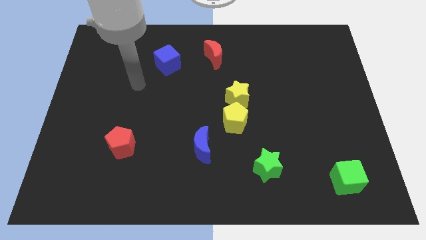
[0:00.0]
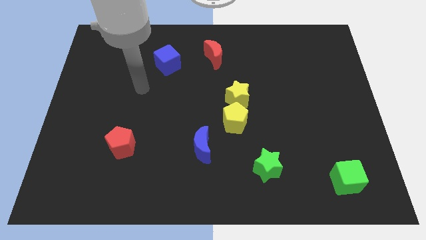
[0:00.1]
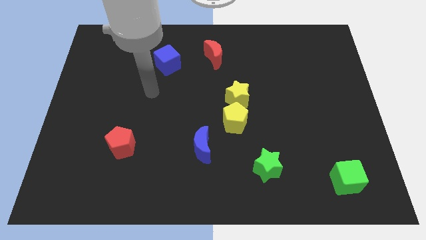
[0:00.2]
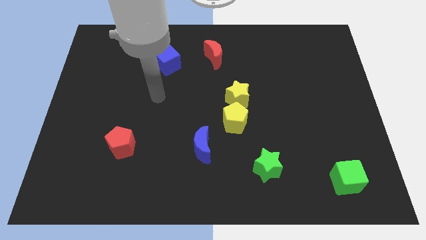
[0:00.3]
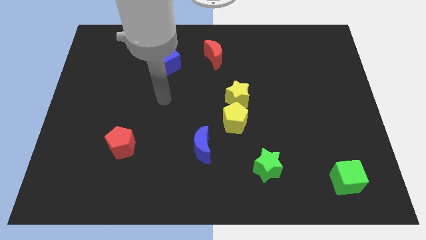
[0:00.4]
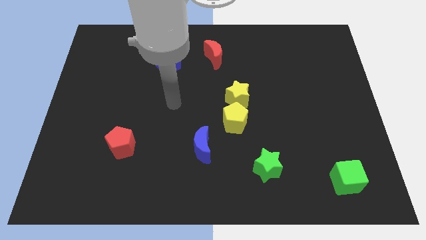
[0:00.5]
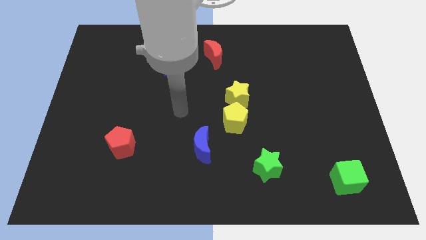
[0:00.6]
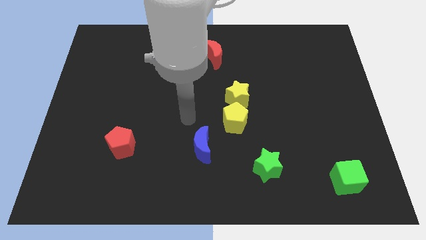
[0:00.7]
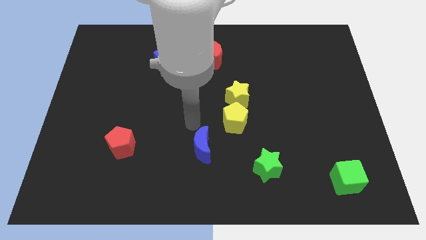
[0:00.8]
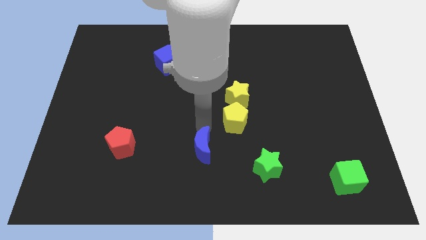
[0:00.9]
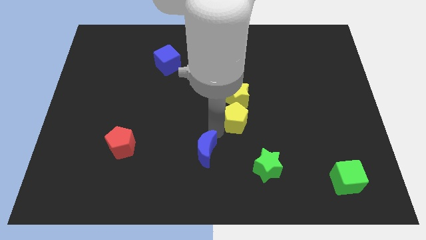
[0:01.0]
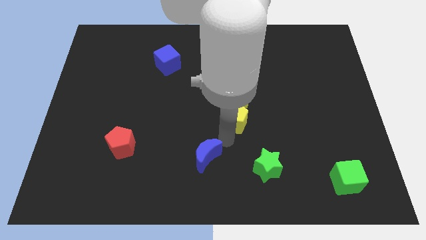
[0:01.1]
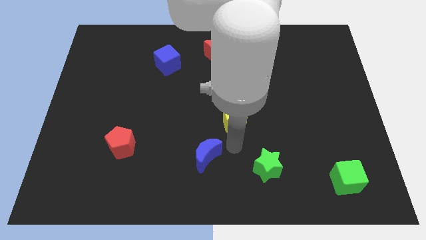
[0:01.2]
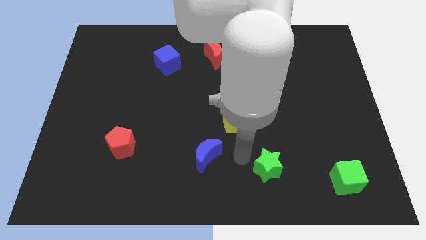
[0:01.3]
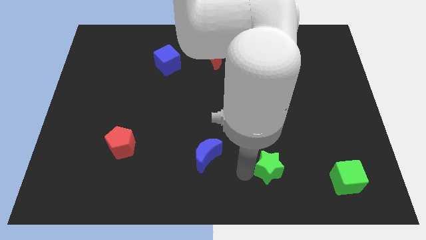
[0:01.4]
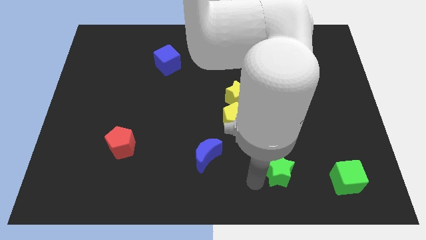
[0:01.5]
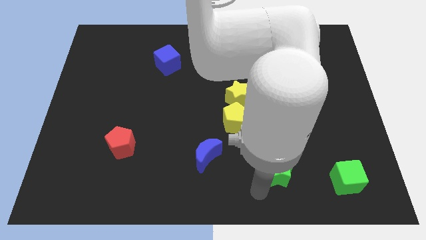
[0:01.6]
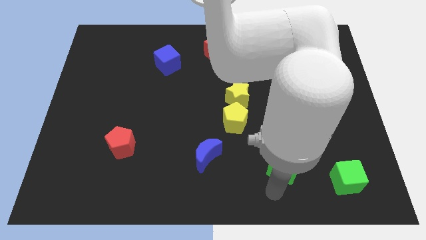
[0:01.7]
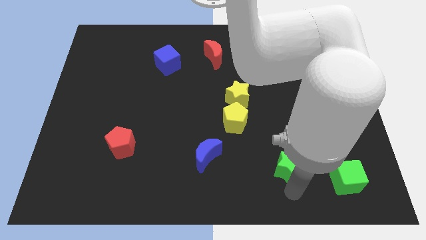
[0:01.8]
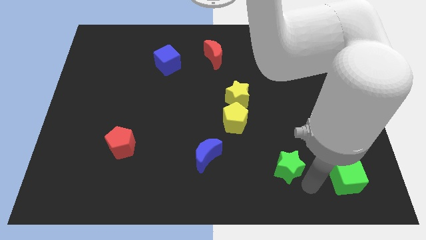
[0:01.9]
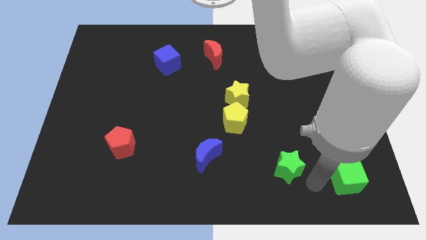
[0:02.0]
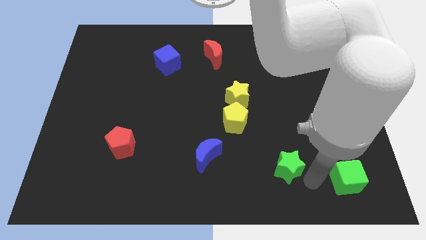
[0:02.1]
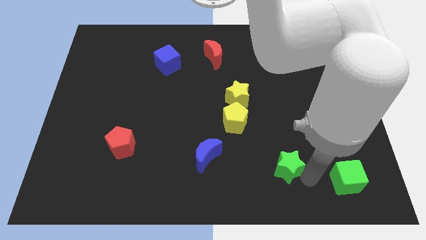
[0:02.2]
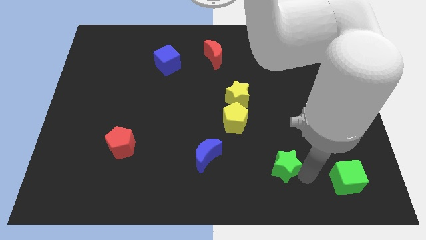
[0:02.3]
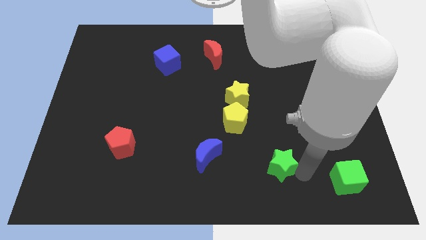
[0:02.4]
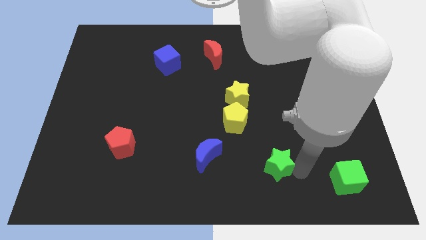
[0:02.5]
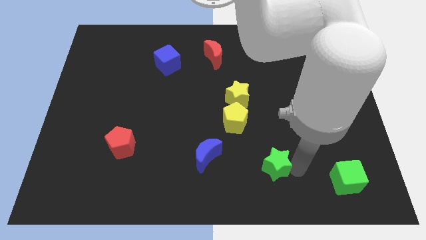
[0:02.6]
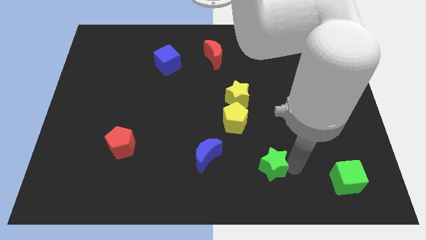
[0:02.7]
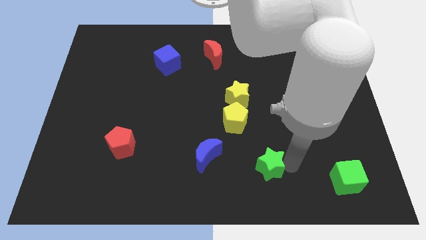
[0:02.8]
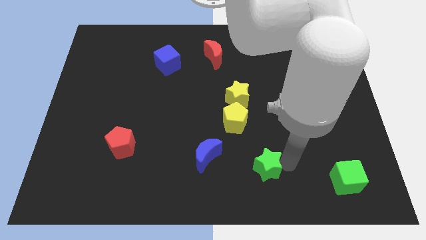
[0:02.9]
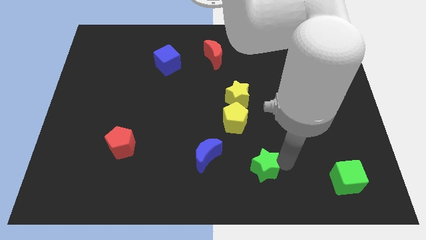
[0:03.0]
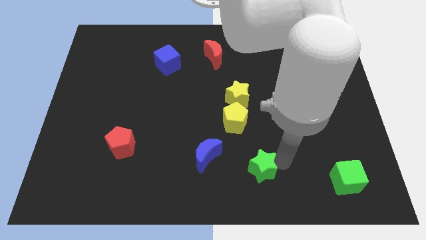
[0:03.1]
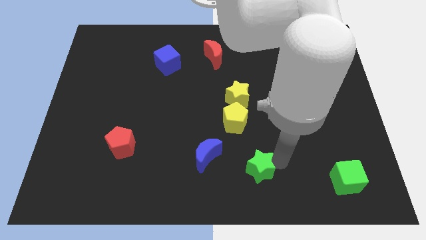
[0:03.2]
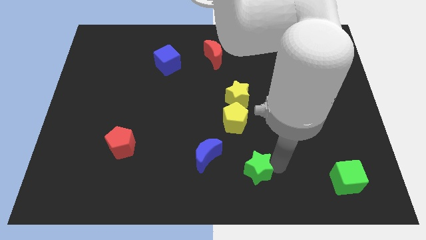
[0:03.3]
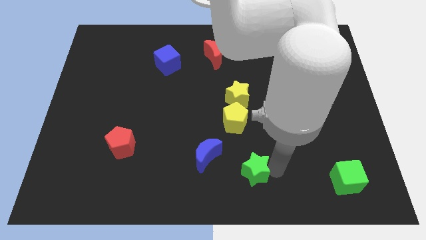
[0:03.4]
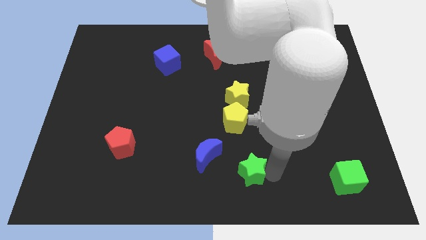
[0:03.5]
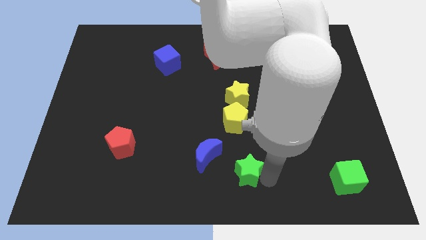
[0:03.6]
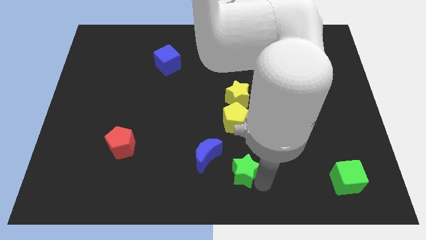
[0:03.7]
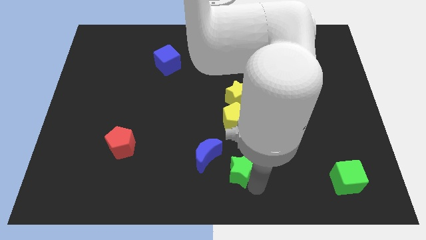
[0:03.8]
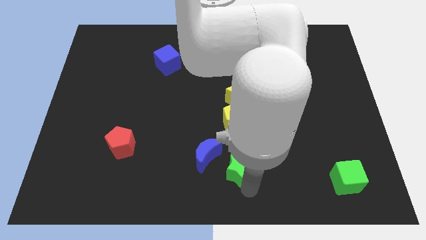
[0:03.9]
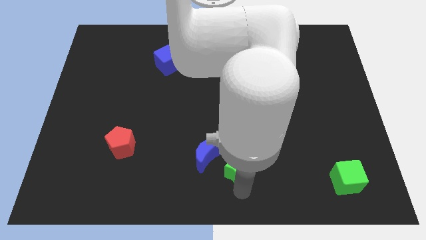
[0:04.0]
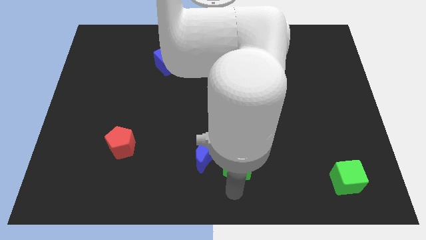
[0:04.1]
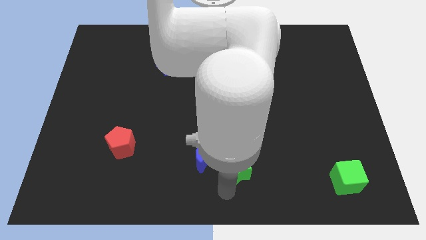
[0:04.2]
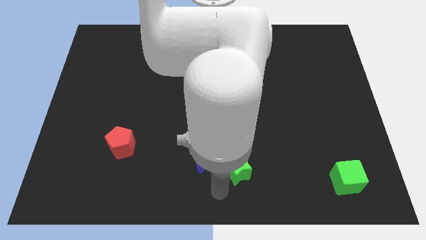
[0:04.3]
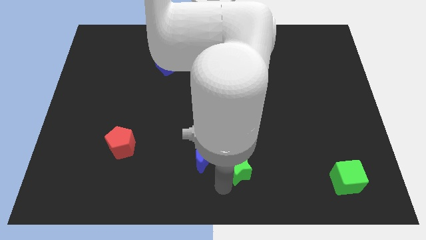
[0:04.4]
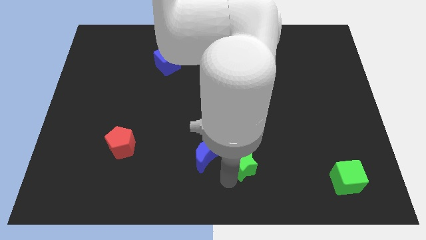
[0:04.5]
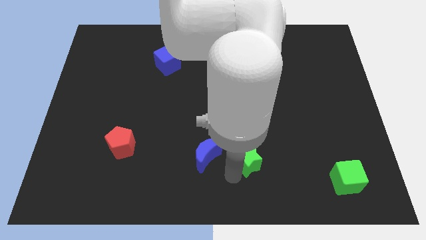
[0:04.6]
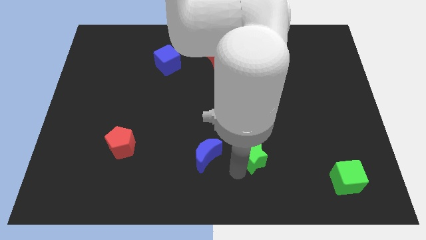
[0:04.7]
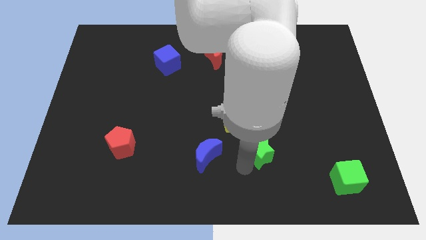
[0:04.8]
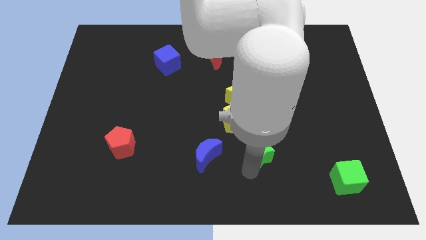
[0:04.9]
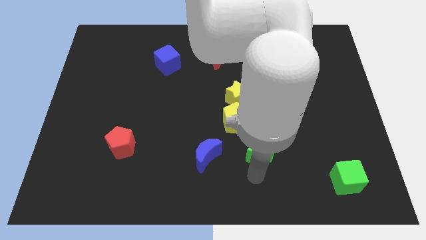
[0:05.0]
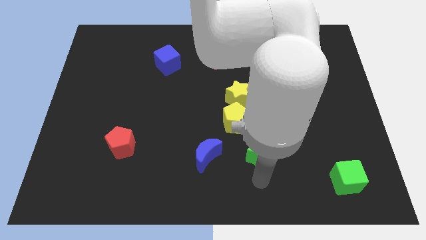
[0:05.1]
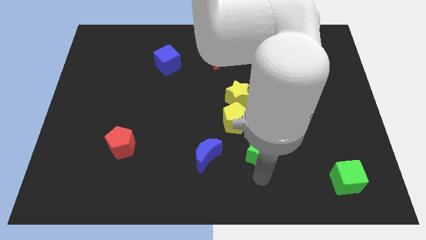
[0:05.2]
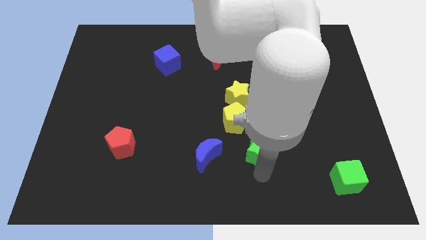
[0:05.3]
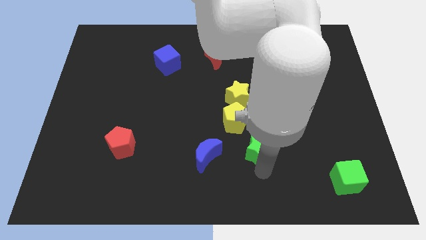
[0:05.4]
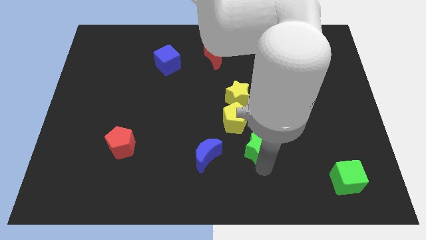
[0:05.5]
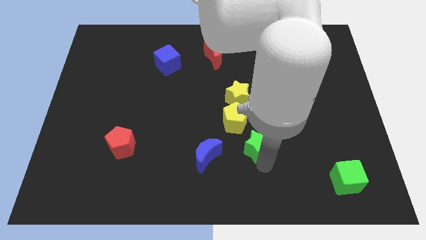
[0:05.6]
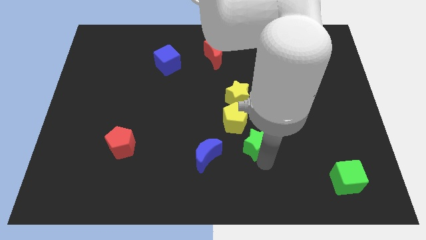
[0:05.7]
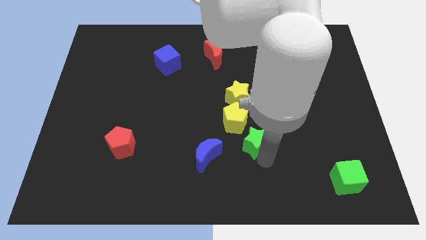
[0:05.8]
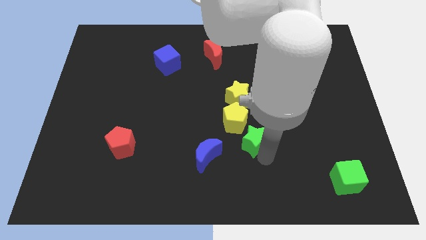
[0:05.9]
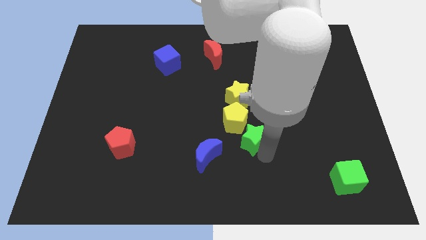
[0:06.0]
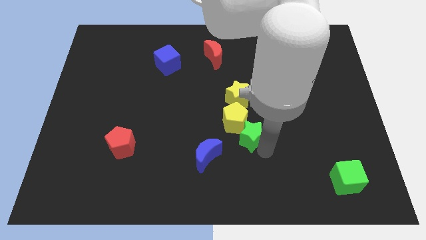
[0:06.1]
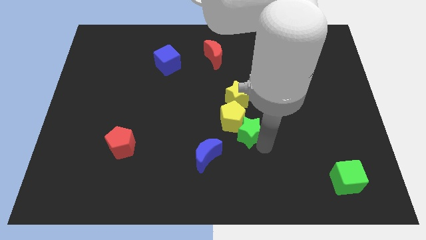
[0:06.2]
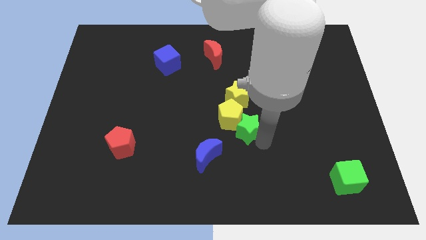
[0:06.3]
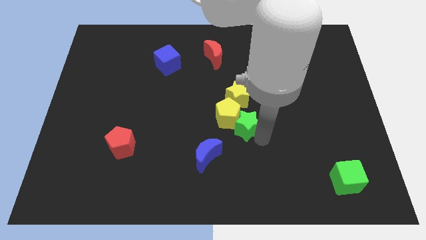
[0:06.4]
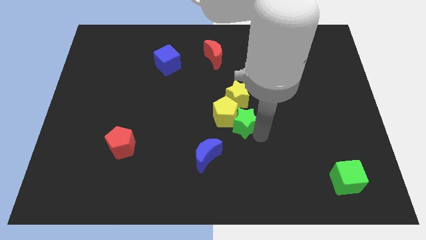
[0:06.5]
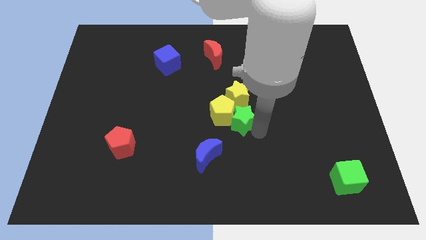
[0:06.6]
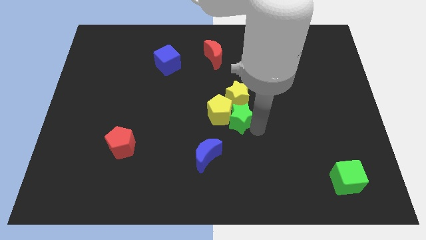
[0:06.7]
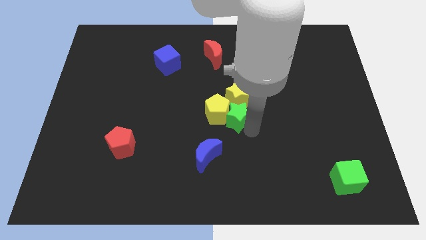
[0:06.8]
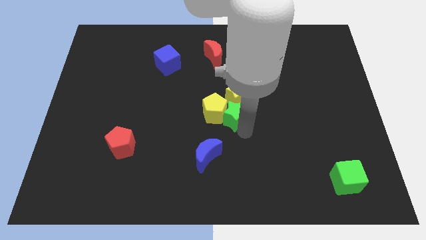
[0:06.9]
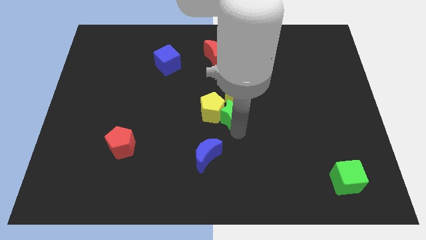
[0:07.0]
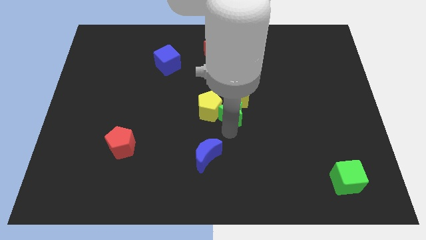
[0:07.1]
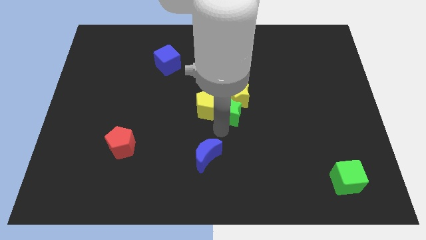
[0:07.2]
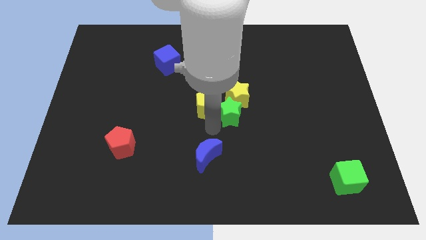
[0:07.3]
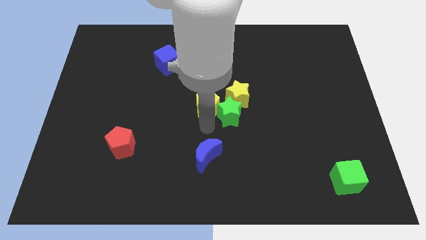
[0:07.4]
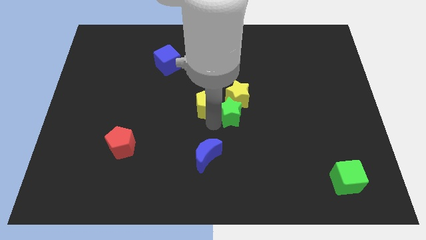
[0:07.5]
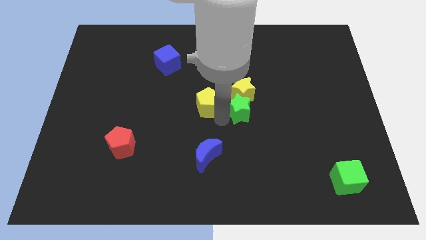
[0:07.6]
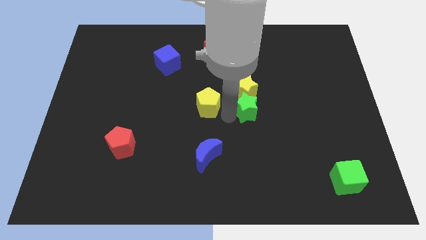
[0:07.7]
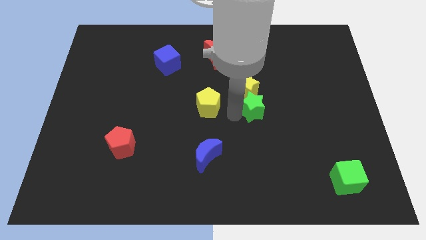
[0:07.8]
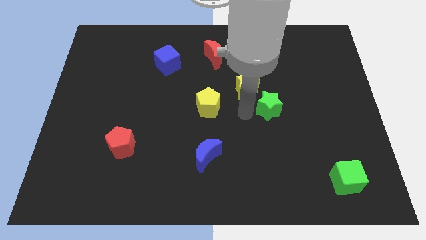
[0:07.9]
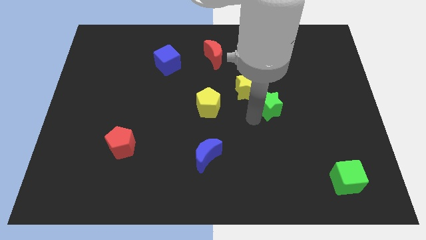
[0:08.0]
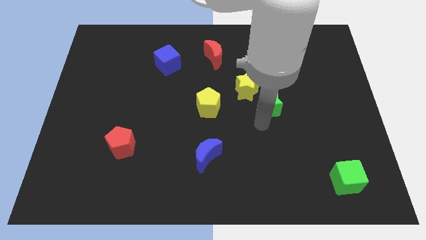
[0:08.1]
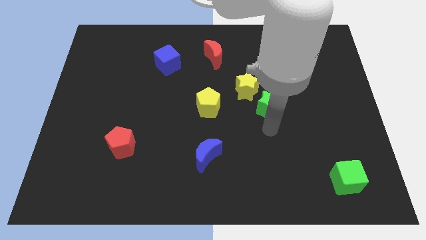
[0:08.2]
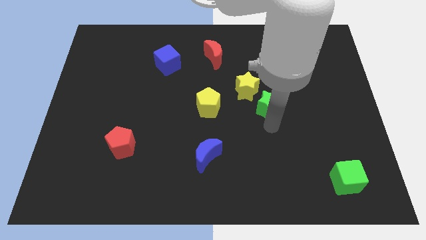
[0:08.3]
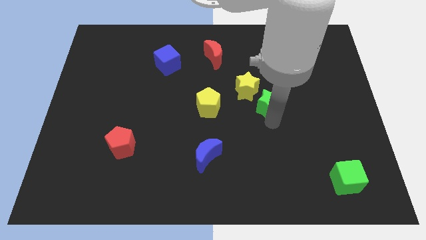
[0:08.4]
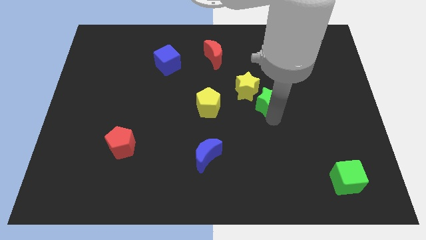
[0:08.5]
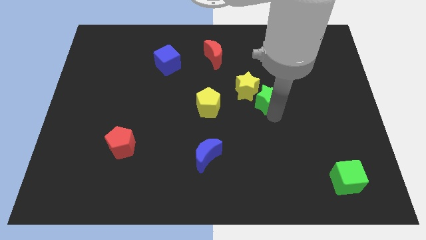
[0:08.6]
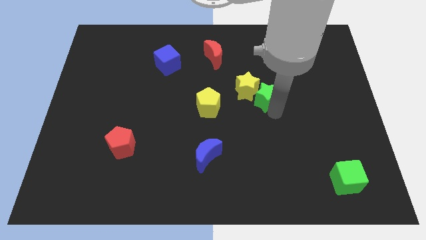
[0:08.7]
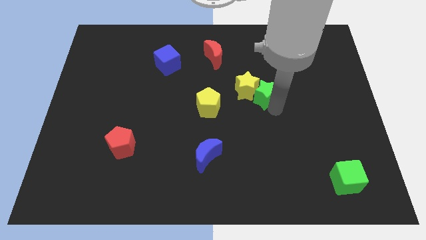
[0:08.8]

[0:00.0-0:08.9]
slide the green star to the top right of the yellow star
